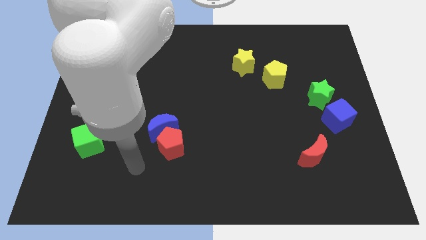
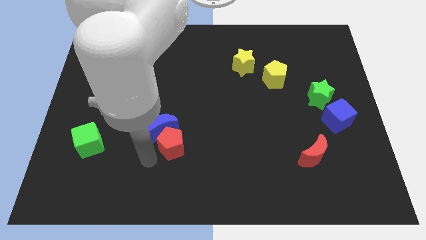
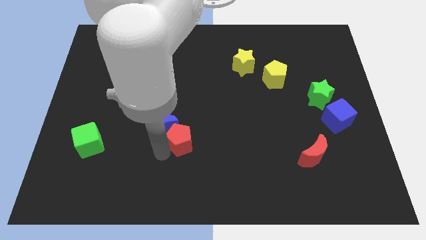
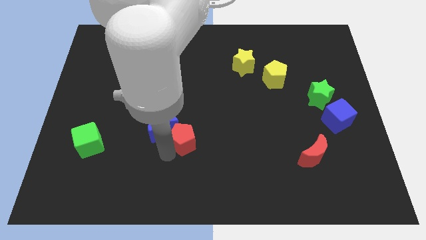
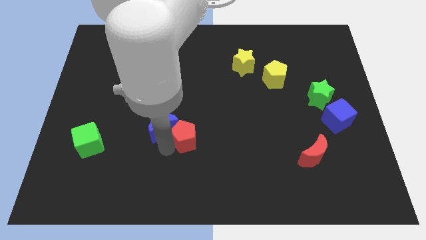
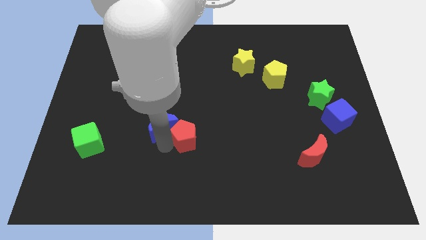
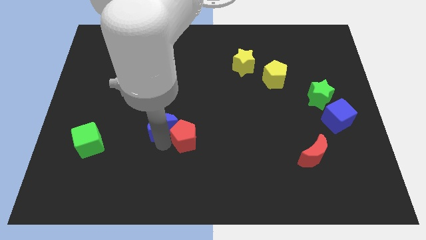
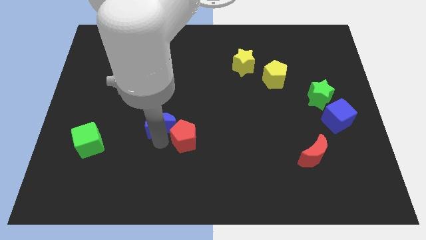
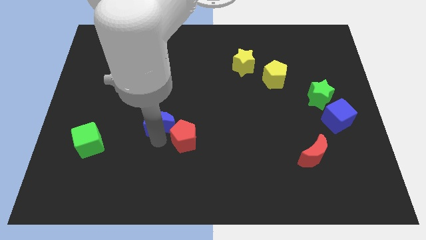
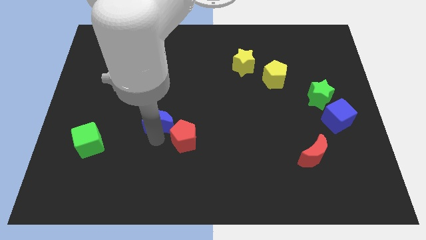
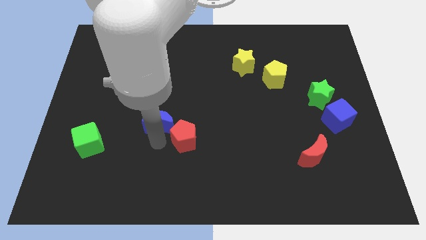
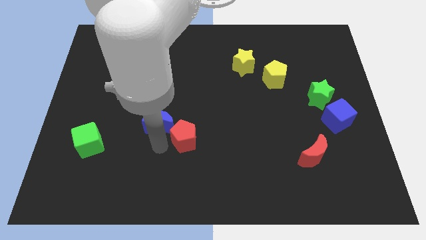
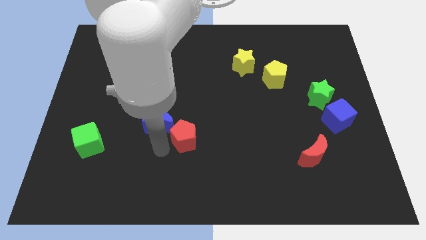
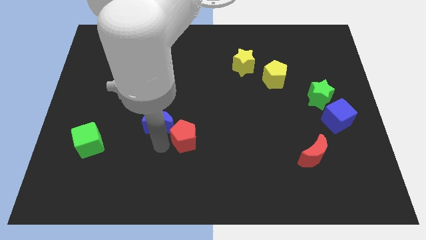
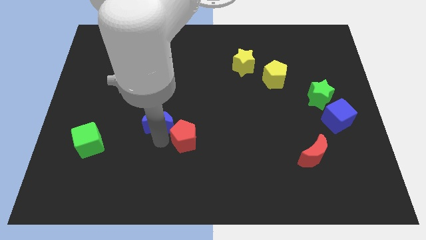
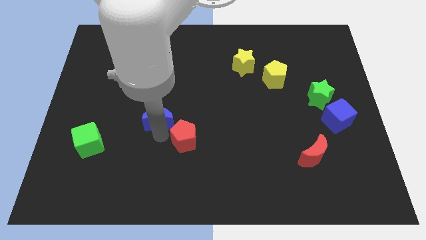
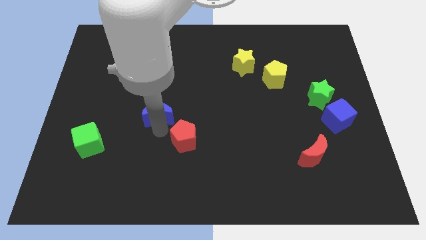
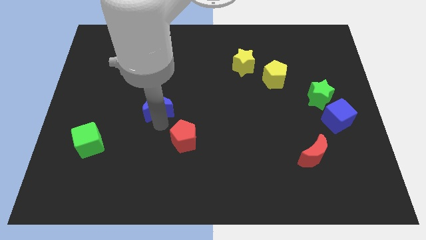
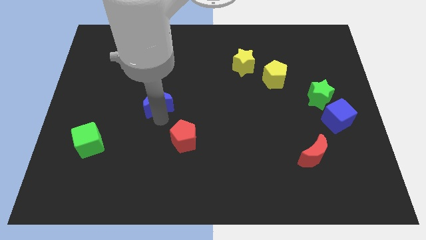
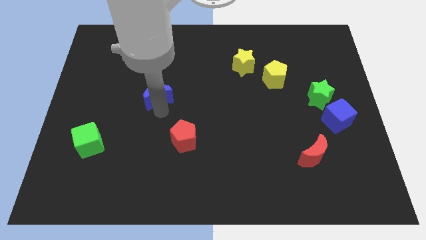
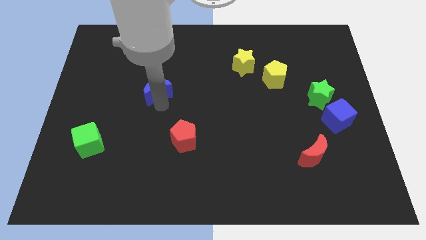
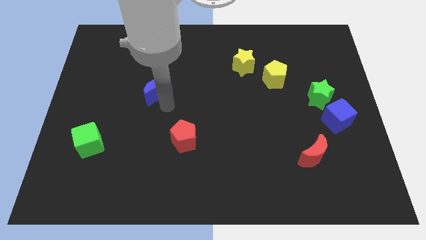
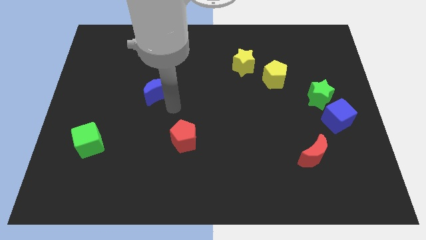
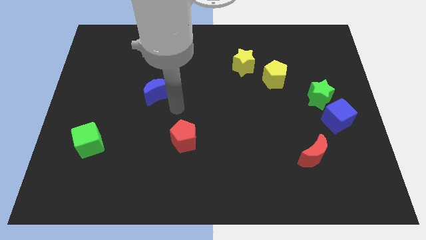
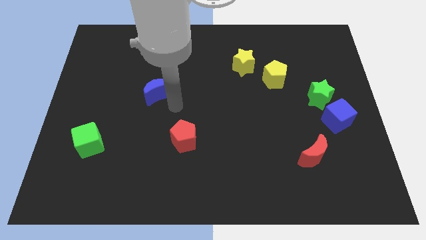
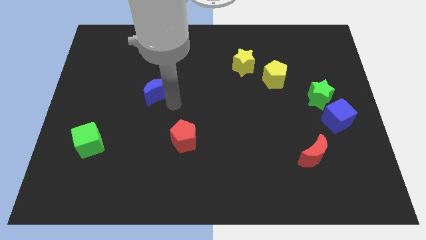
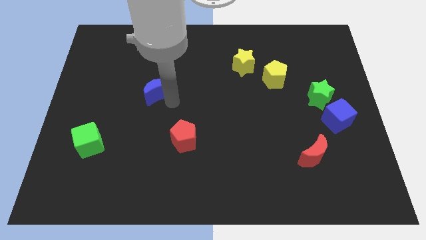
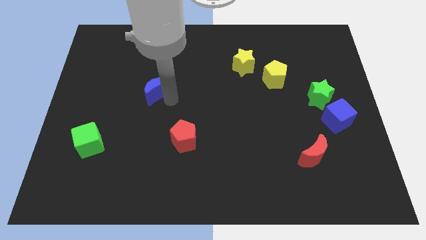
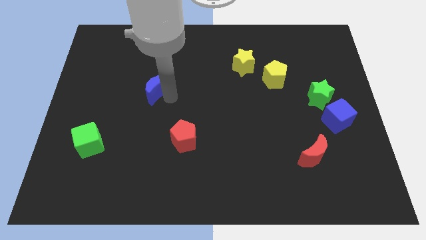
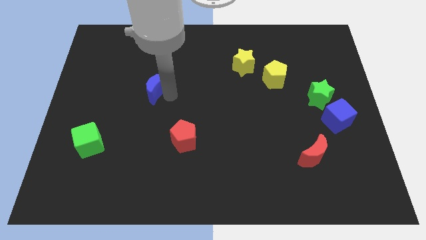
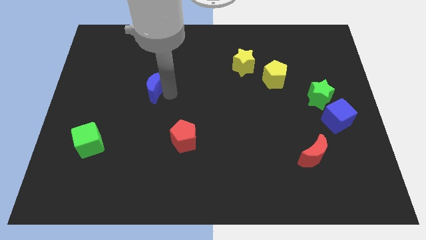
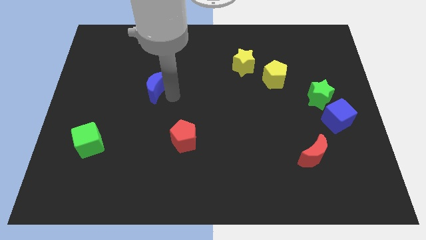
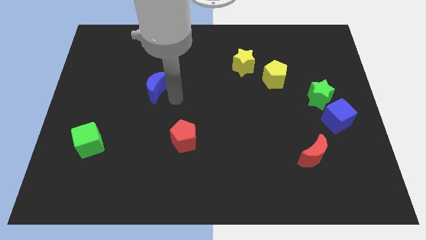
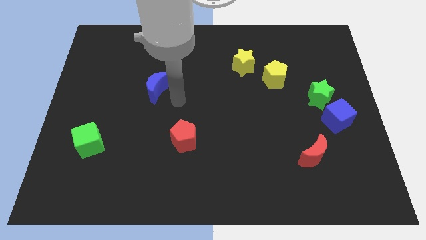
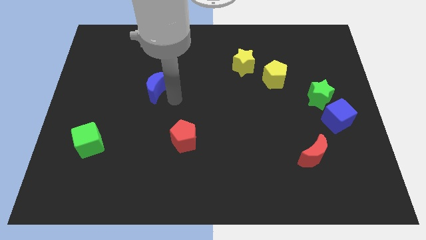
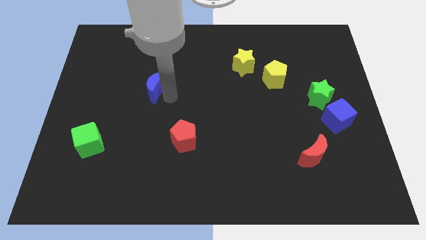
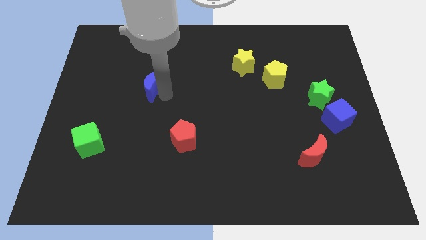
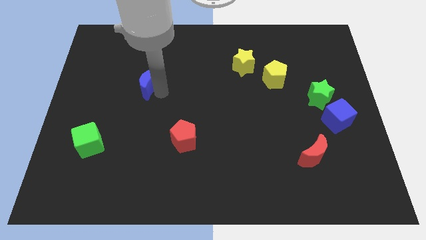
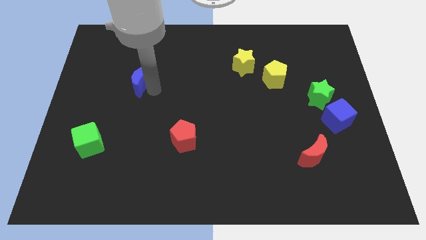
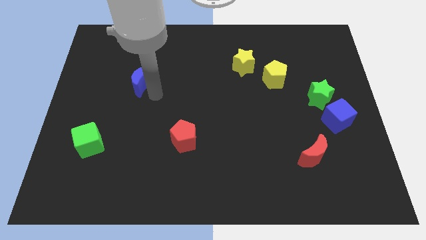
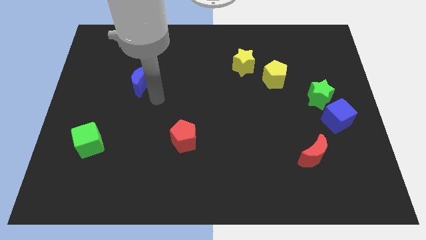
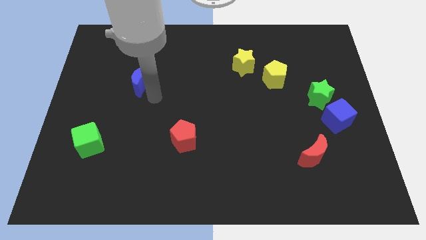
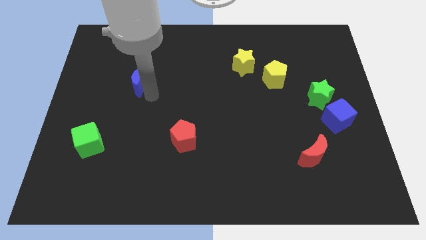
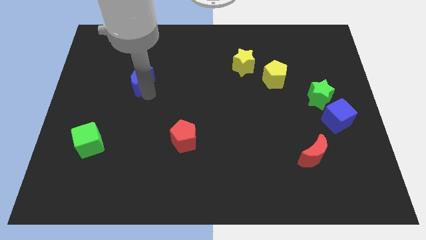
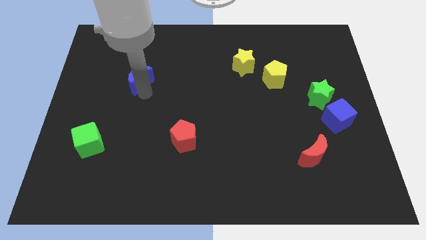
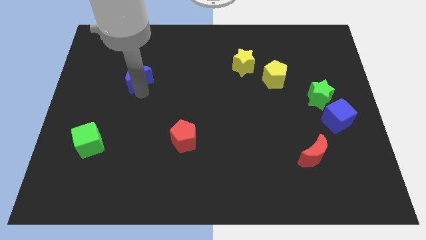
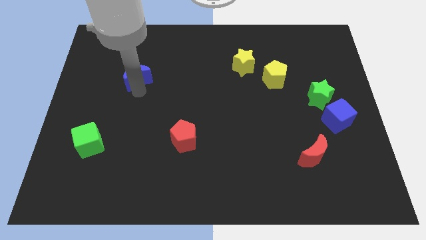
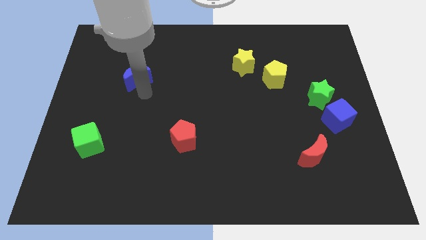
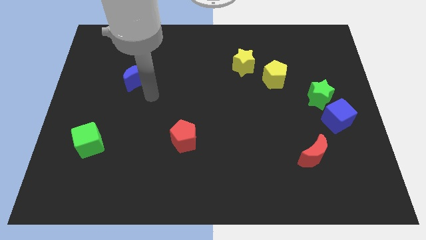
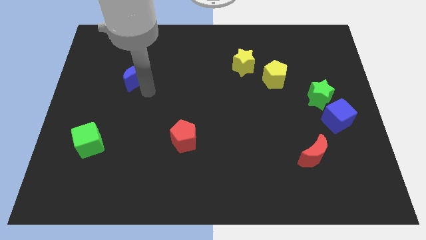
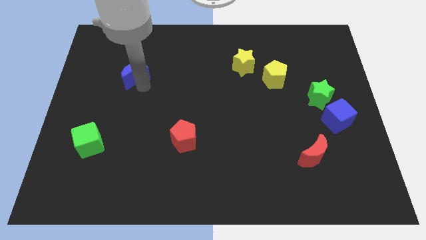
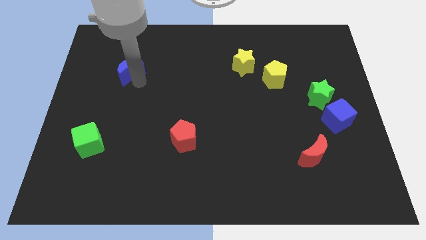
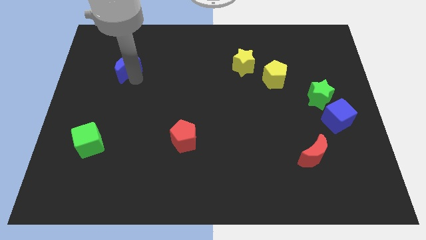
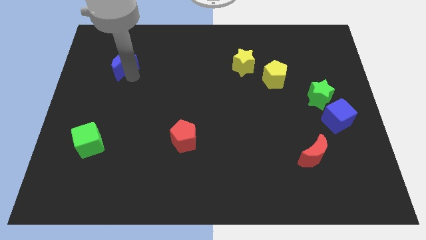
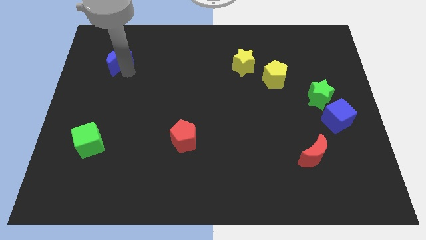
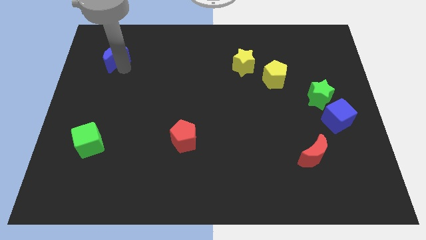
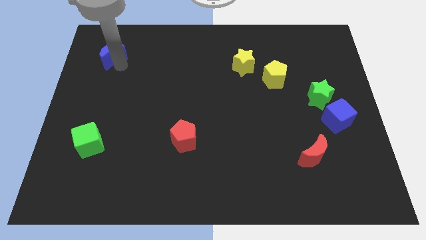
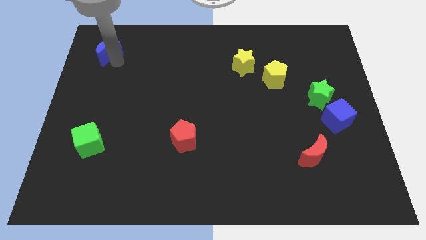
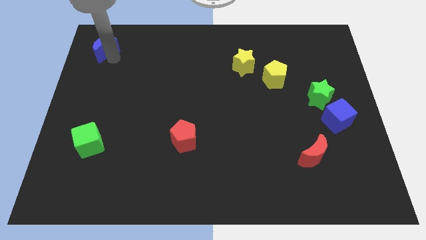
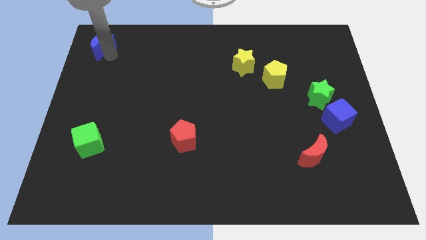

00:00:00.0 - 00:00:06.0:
move the blue moon to the top left corner
